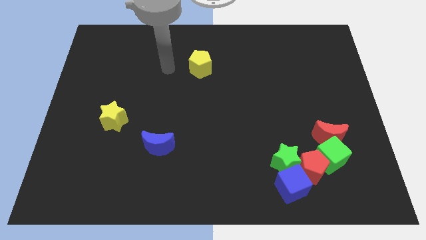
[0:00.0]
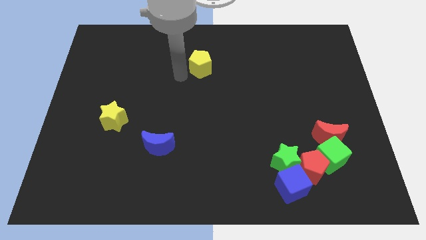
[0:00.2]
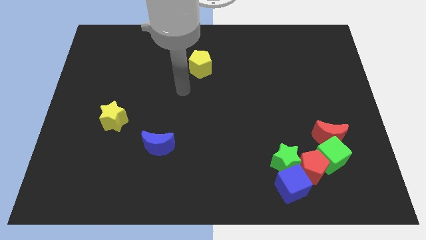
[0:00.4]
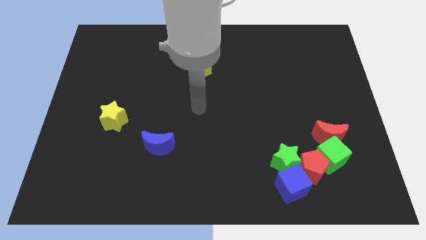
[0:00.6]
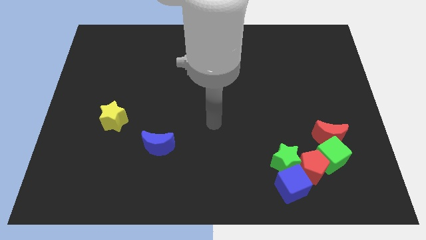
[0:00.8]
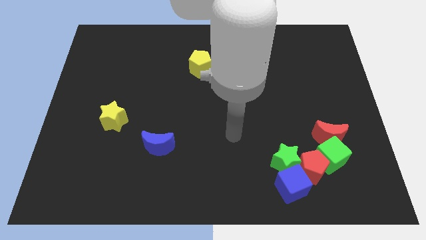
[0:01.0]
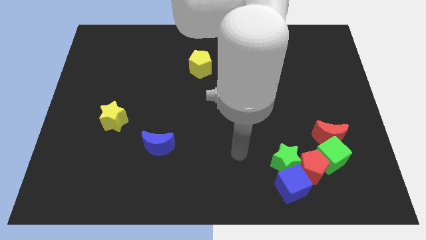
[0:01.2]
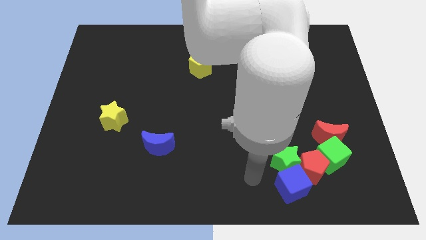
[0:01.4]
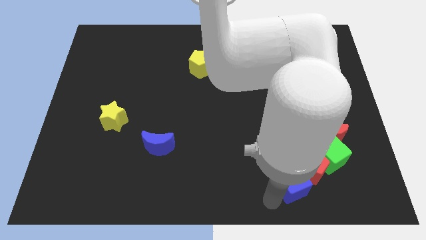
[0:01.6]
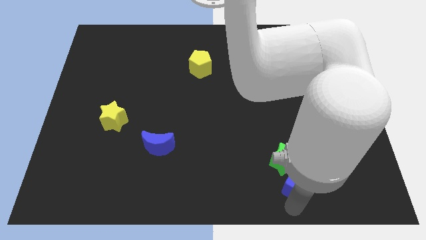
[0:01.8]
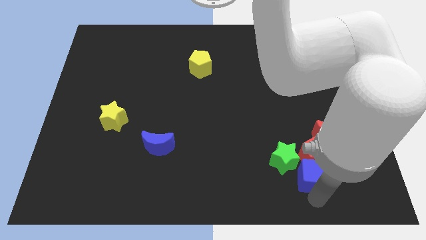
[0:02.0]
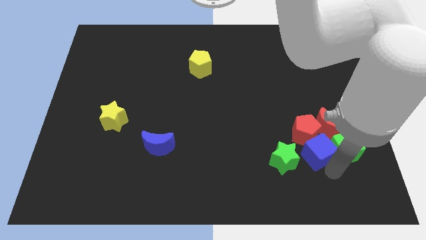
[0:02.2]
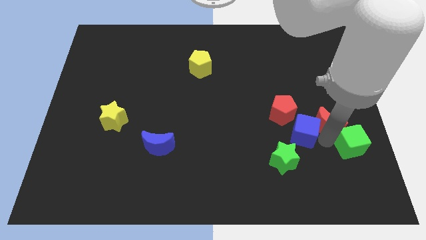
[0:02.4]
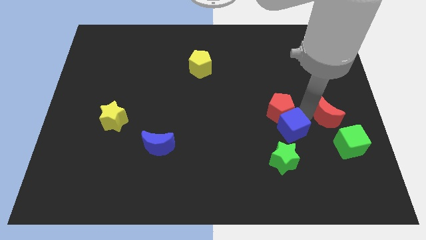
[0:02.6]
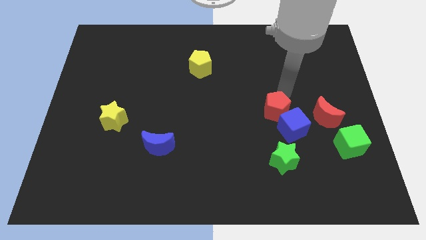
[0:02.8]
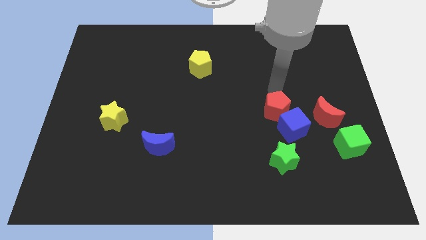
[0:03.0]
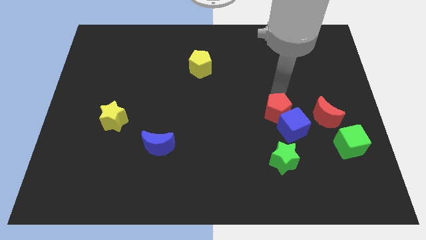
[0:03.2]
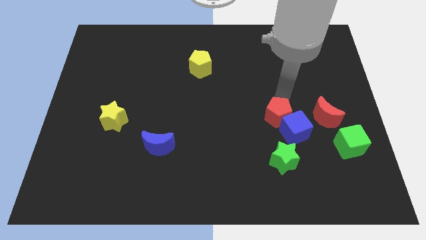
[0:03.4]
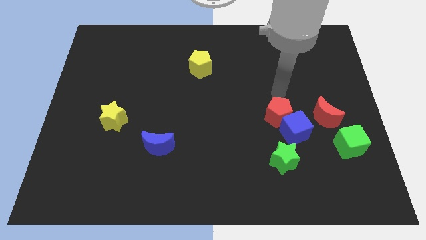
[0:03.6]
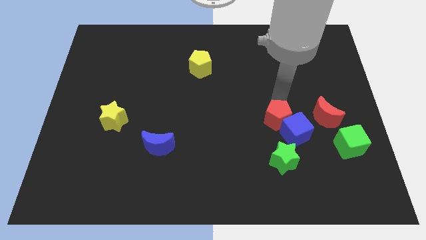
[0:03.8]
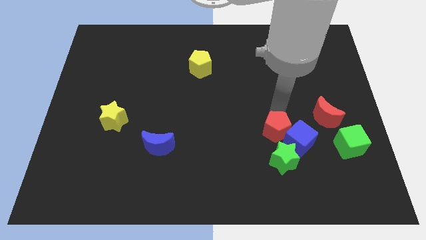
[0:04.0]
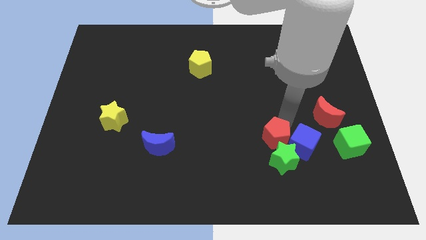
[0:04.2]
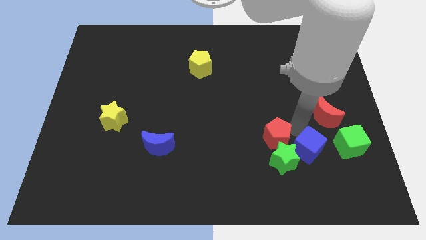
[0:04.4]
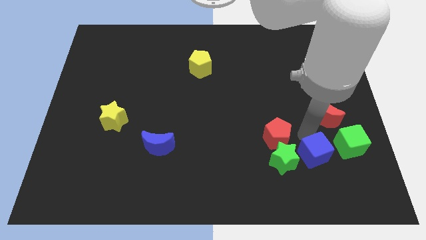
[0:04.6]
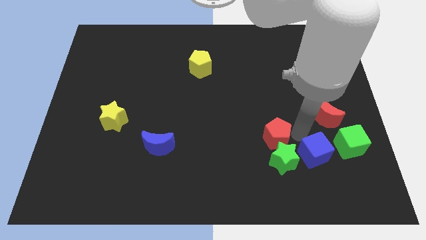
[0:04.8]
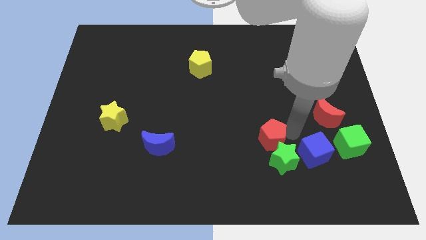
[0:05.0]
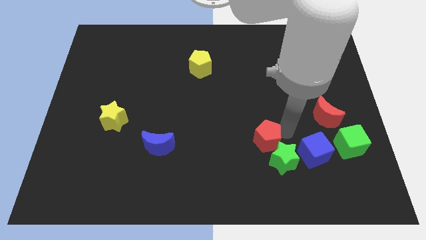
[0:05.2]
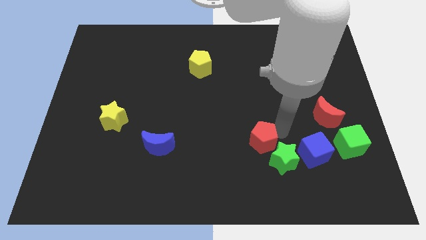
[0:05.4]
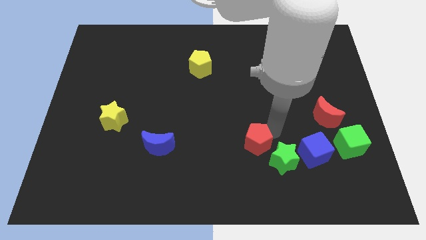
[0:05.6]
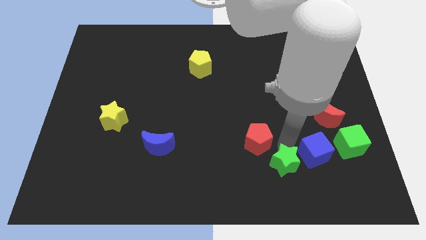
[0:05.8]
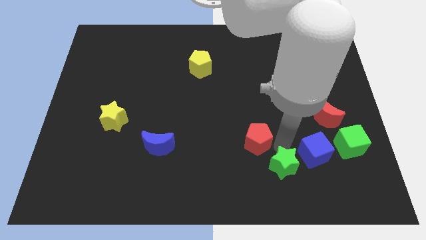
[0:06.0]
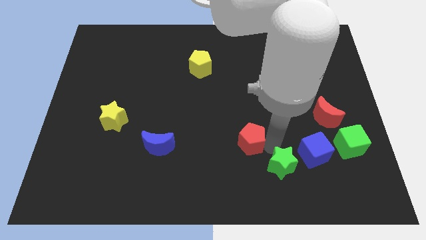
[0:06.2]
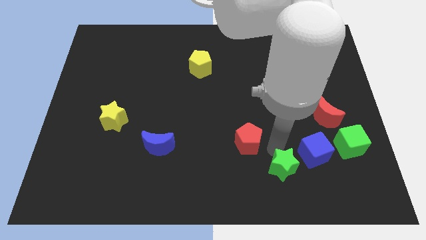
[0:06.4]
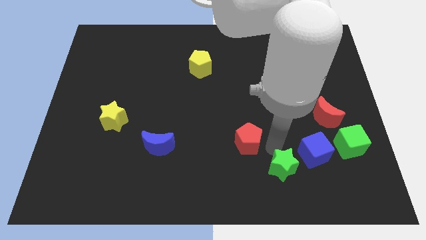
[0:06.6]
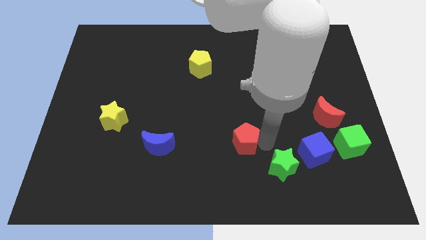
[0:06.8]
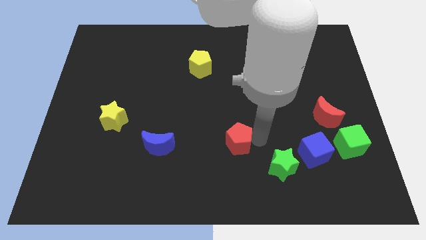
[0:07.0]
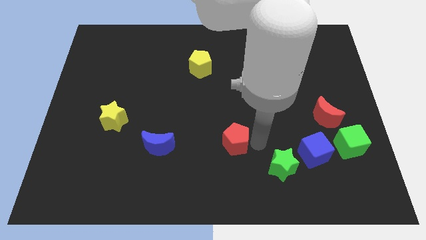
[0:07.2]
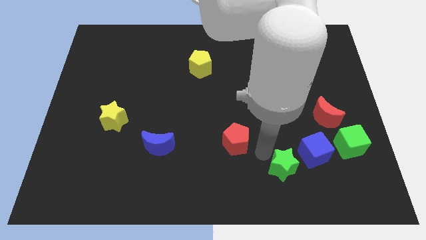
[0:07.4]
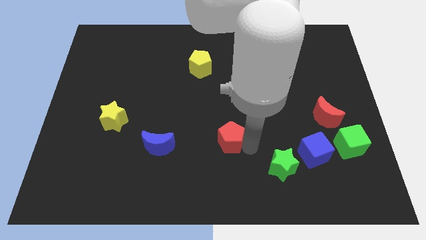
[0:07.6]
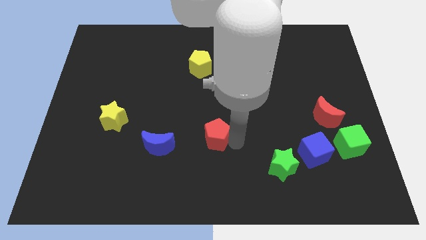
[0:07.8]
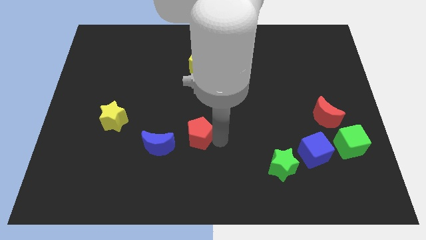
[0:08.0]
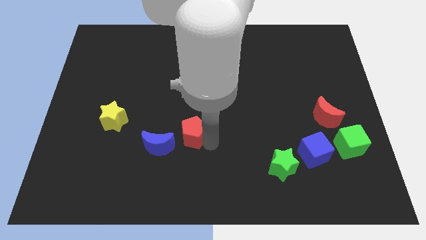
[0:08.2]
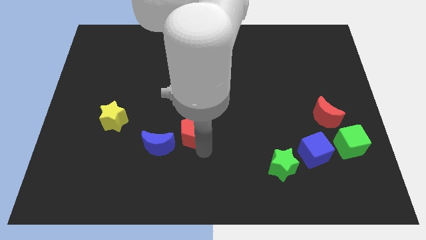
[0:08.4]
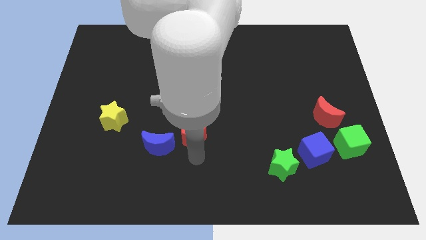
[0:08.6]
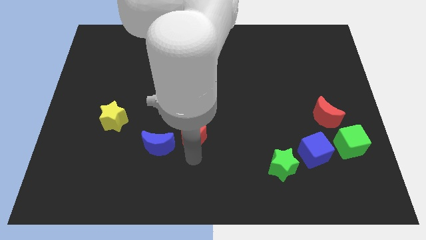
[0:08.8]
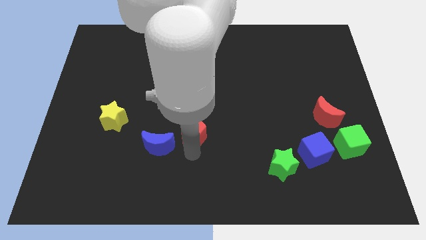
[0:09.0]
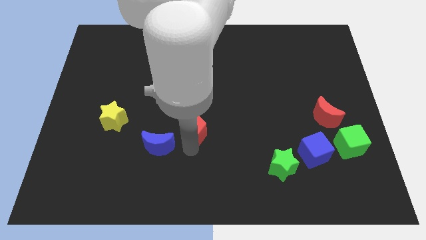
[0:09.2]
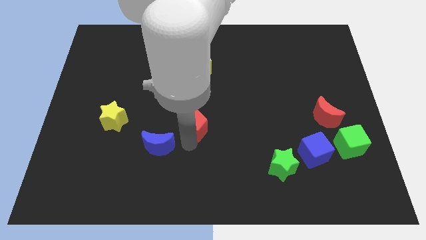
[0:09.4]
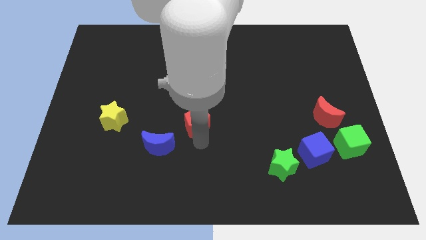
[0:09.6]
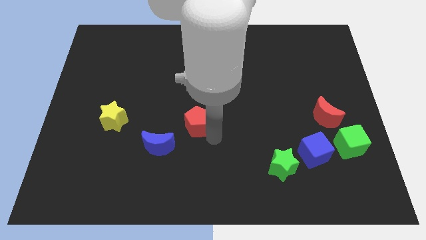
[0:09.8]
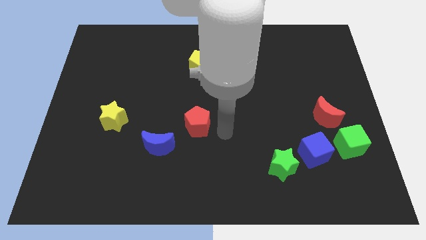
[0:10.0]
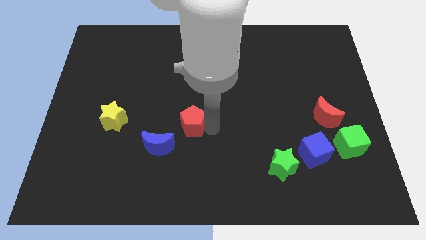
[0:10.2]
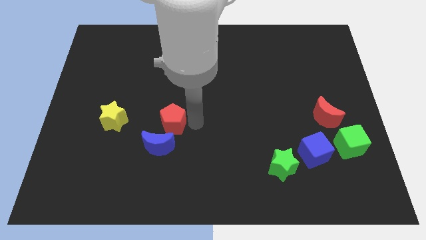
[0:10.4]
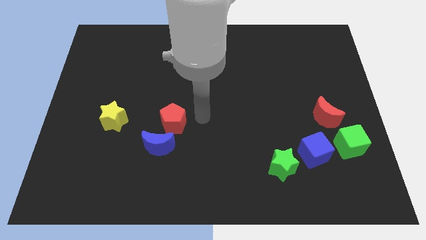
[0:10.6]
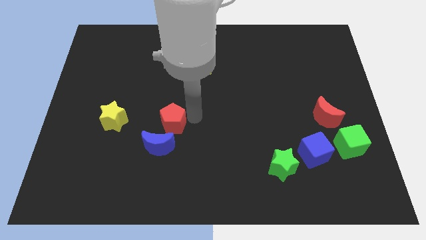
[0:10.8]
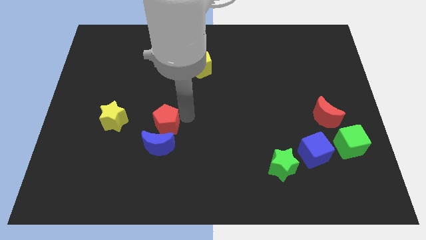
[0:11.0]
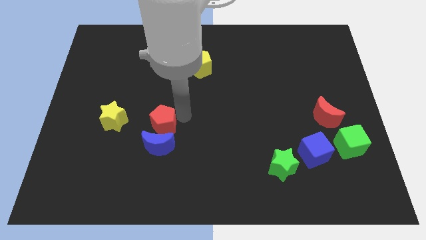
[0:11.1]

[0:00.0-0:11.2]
push the red pentagon to the top left side of the blue moon

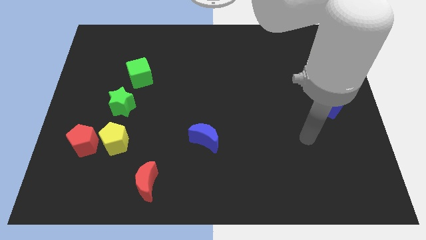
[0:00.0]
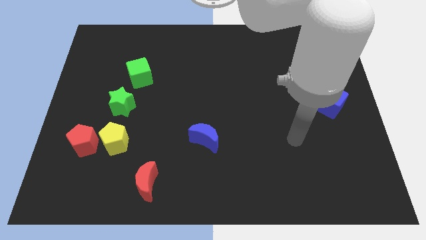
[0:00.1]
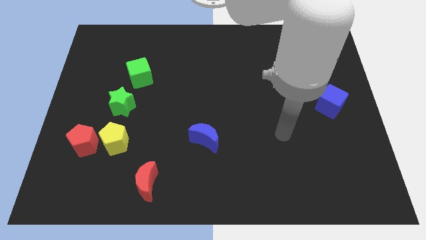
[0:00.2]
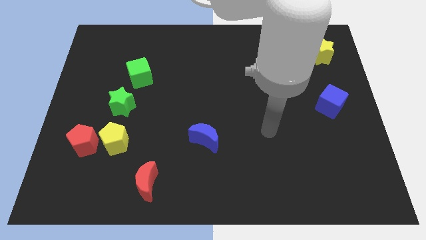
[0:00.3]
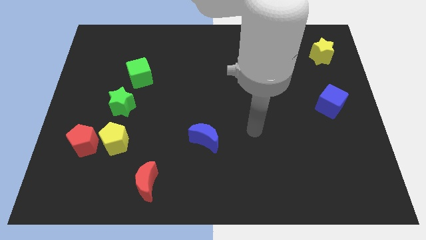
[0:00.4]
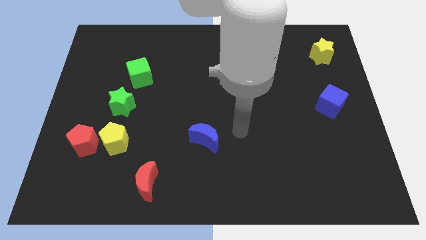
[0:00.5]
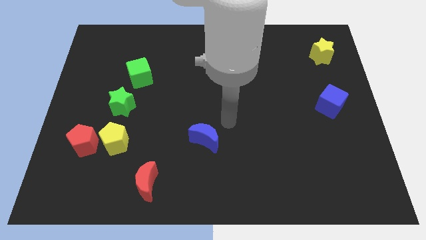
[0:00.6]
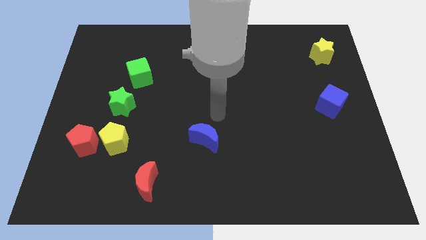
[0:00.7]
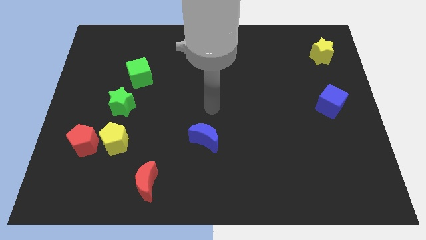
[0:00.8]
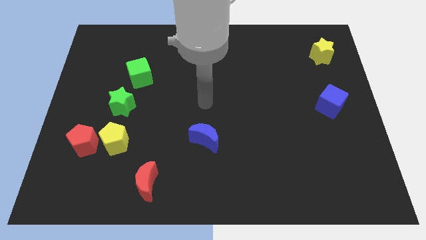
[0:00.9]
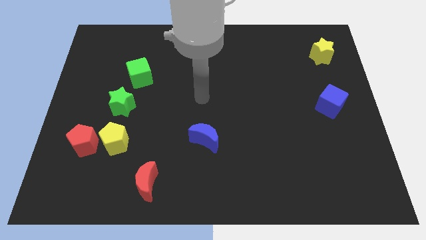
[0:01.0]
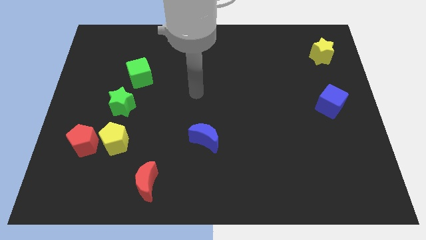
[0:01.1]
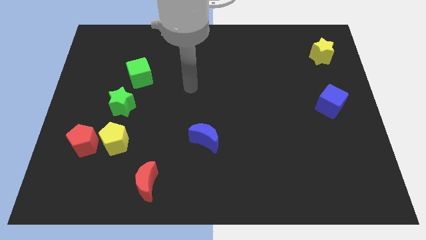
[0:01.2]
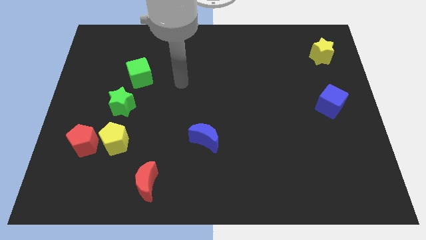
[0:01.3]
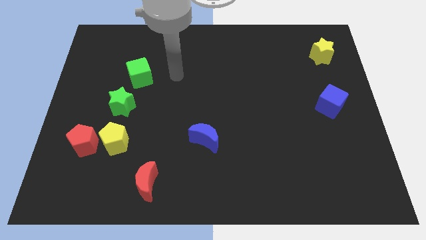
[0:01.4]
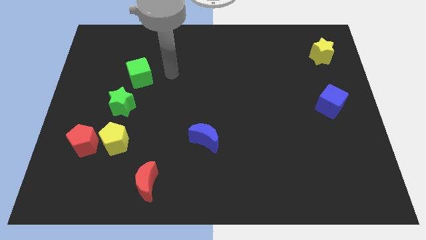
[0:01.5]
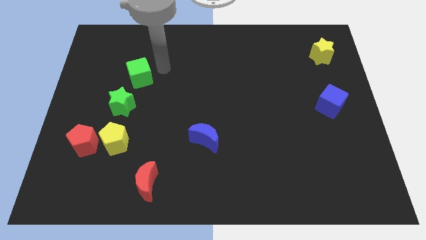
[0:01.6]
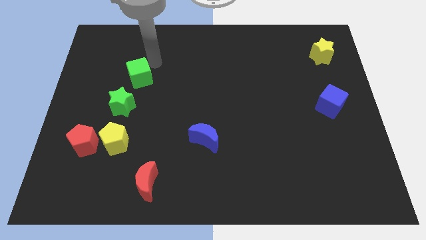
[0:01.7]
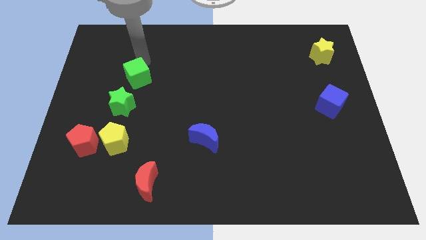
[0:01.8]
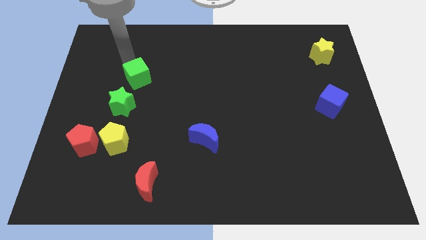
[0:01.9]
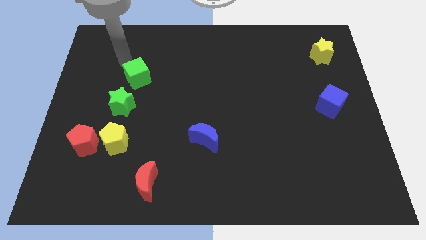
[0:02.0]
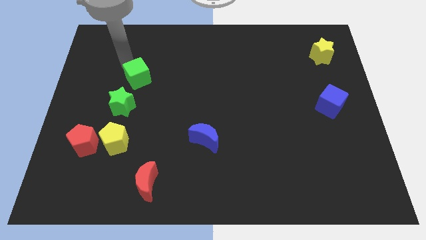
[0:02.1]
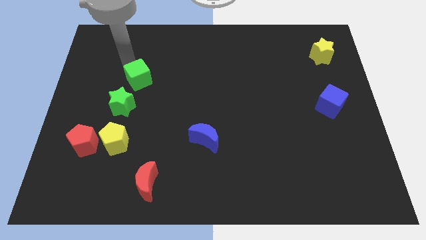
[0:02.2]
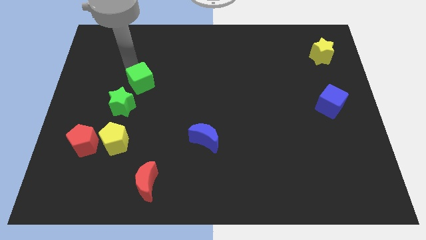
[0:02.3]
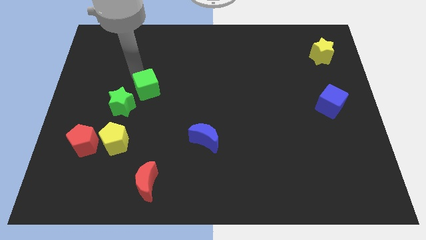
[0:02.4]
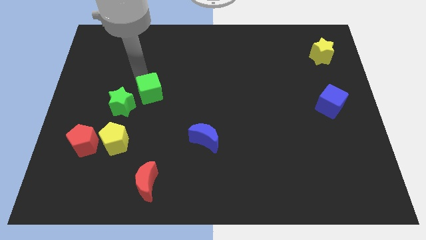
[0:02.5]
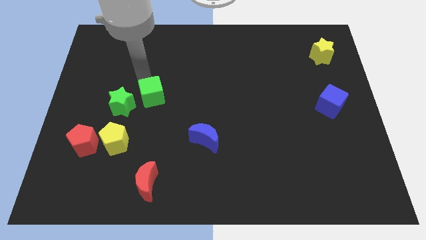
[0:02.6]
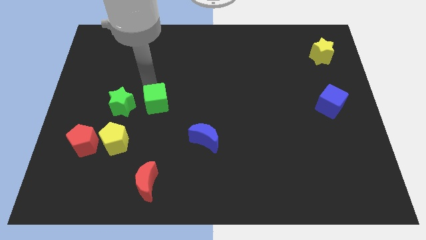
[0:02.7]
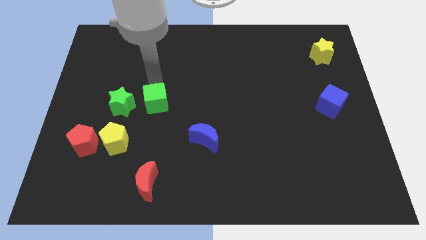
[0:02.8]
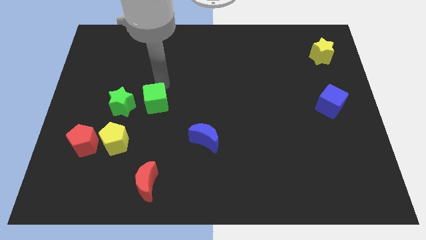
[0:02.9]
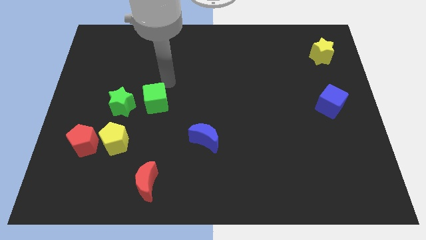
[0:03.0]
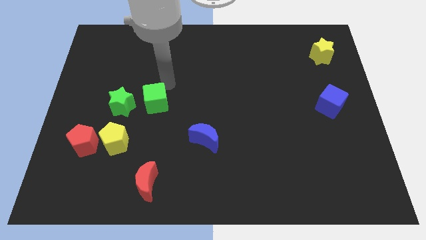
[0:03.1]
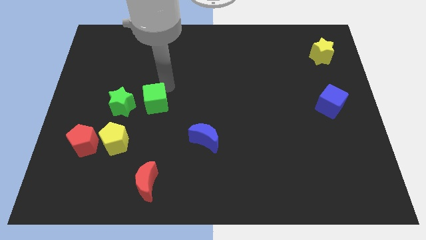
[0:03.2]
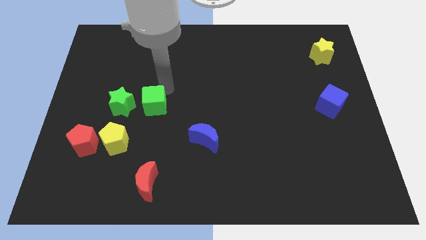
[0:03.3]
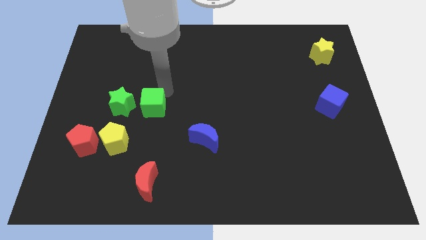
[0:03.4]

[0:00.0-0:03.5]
put the green cube to the top right of the yellow pentagon
